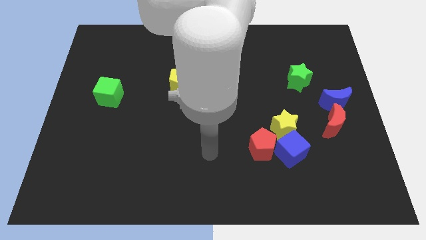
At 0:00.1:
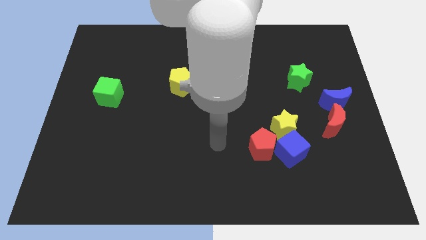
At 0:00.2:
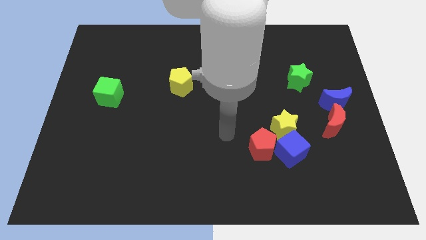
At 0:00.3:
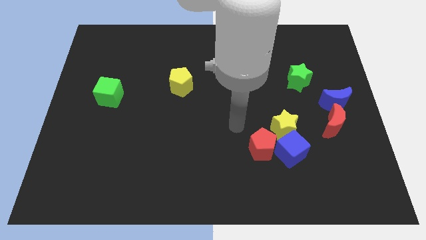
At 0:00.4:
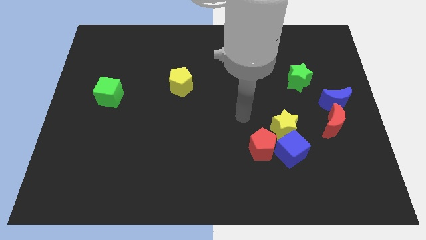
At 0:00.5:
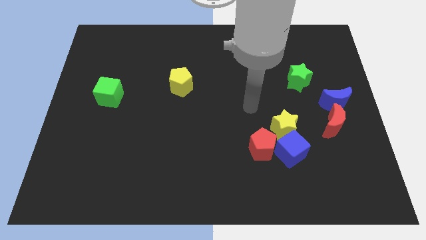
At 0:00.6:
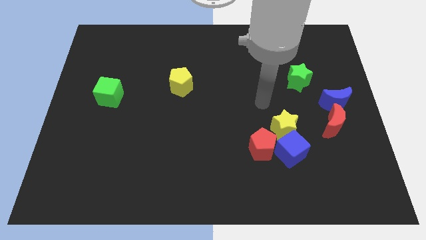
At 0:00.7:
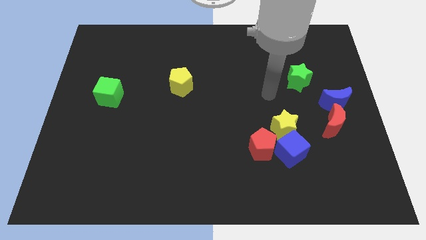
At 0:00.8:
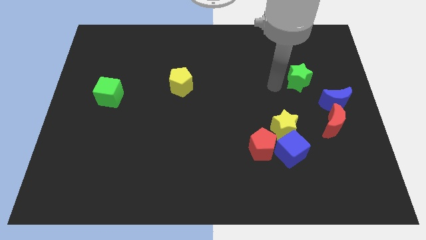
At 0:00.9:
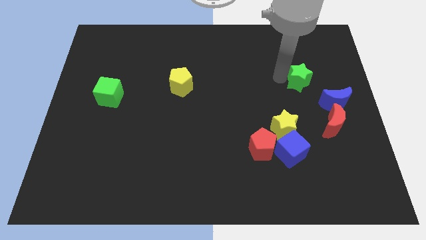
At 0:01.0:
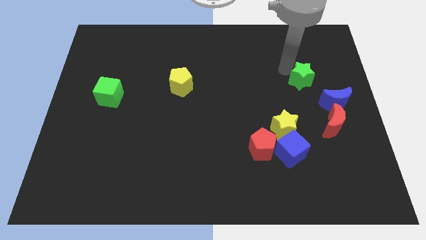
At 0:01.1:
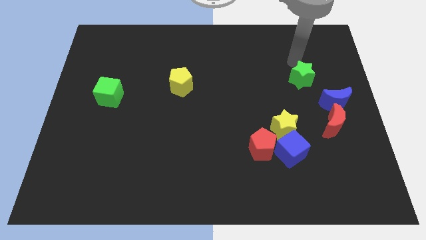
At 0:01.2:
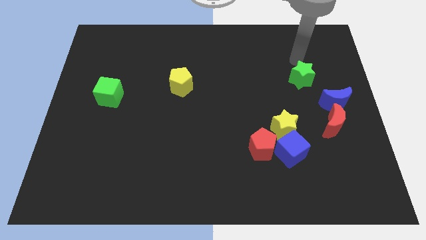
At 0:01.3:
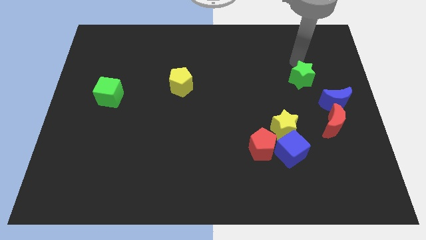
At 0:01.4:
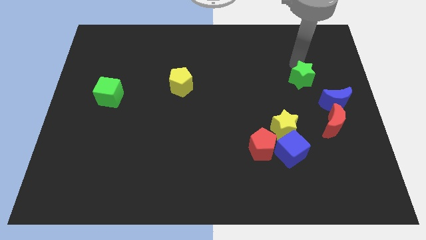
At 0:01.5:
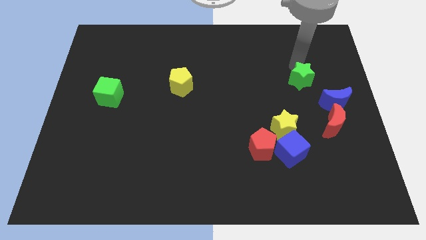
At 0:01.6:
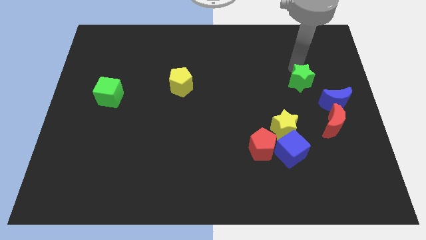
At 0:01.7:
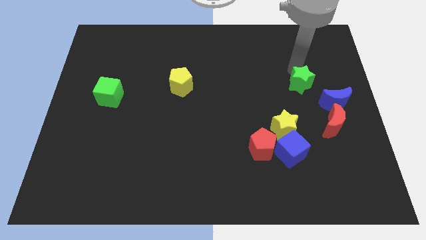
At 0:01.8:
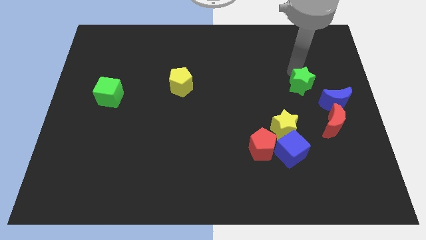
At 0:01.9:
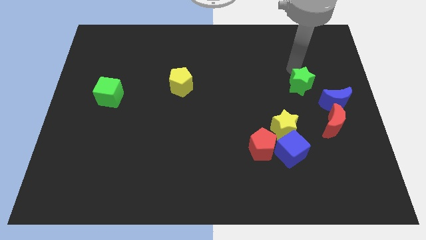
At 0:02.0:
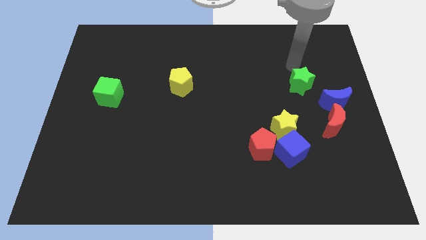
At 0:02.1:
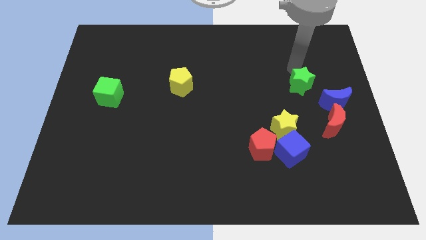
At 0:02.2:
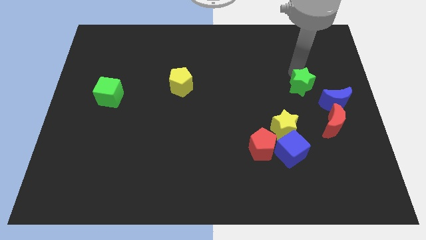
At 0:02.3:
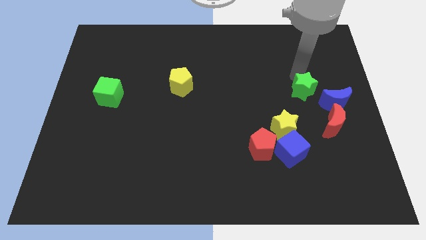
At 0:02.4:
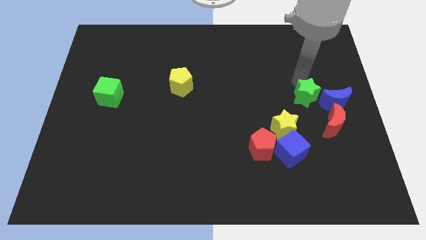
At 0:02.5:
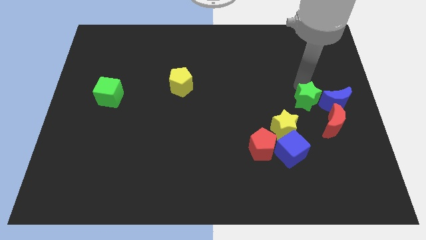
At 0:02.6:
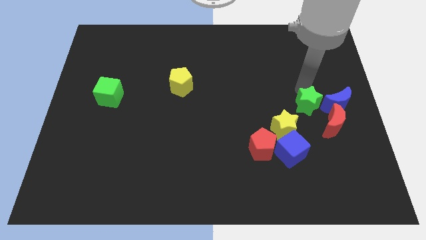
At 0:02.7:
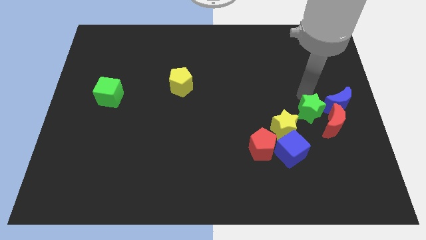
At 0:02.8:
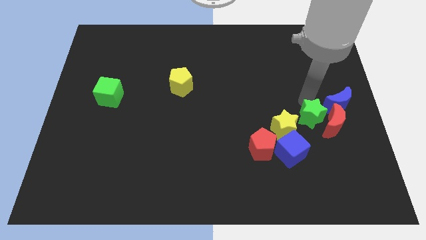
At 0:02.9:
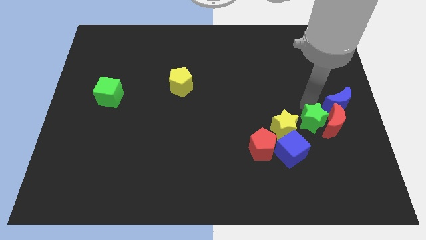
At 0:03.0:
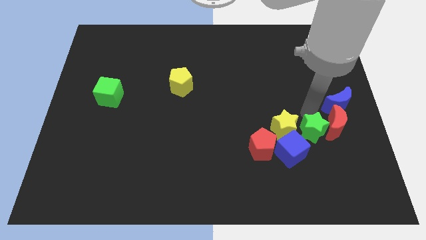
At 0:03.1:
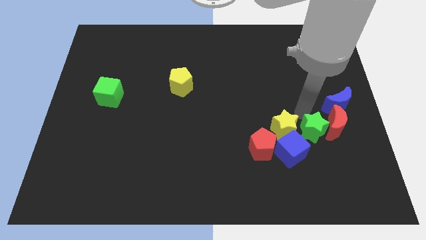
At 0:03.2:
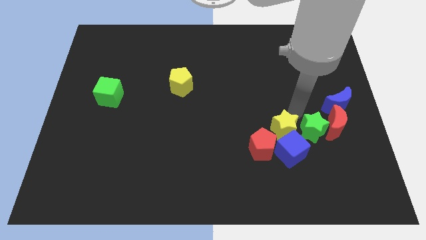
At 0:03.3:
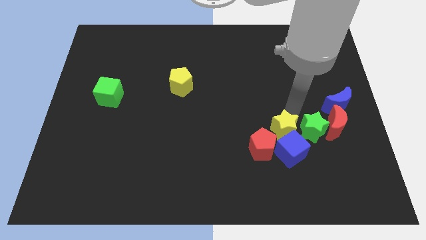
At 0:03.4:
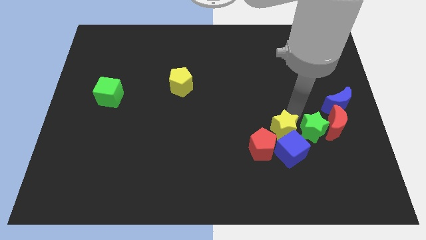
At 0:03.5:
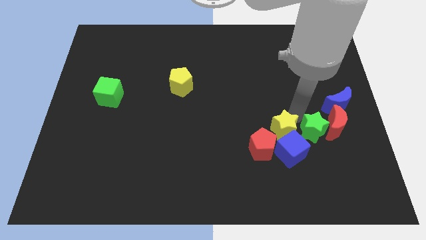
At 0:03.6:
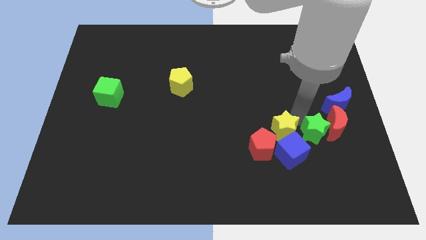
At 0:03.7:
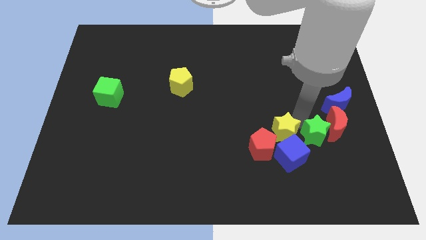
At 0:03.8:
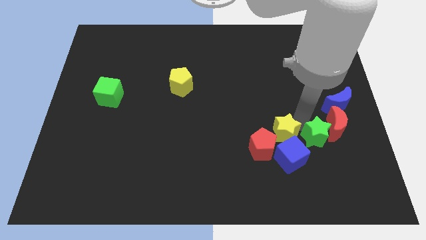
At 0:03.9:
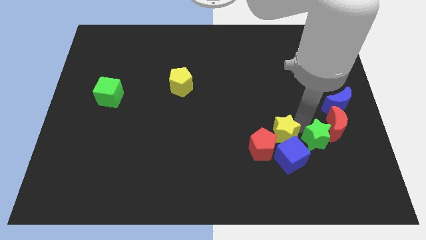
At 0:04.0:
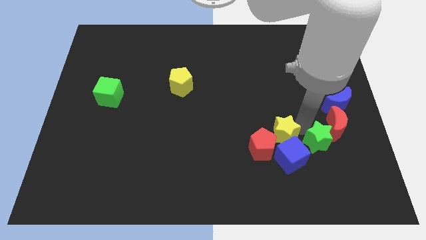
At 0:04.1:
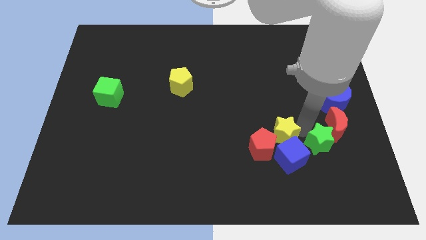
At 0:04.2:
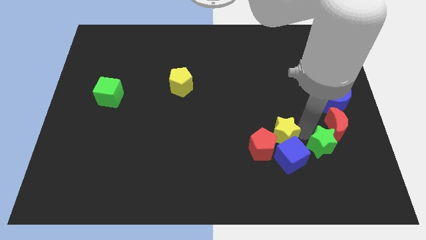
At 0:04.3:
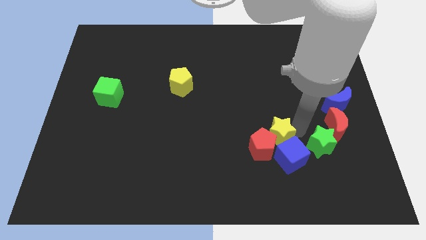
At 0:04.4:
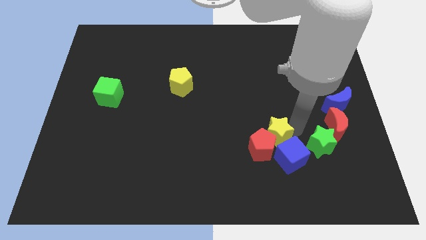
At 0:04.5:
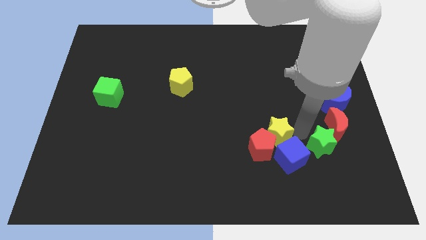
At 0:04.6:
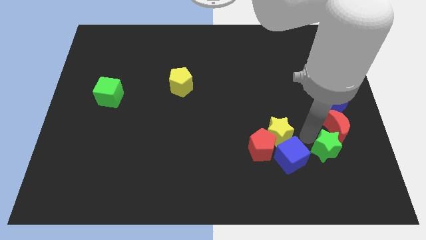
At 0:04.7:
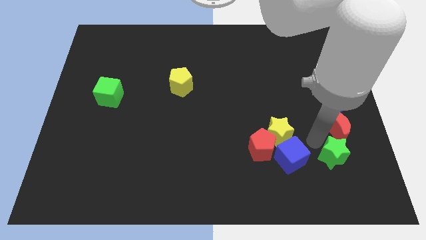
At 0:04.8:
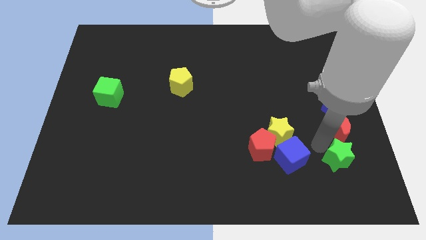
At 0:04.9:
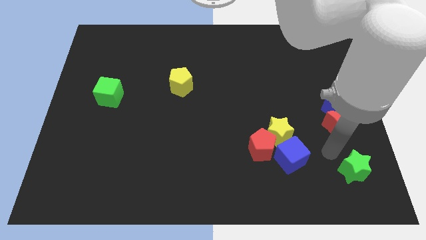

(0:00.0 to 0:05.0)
put the green star to the lower right corner

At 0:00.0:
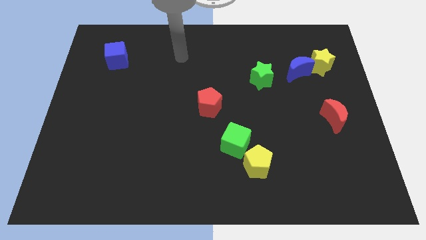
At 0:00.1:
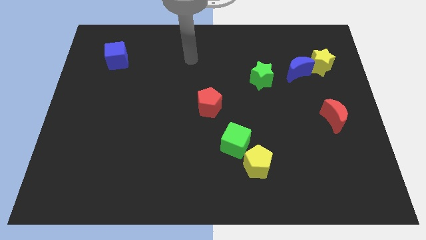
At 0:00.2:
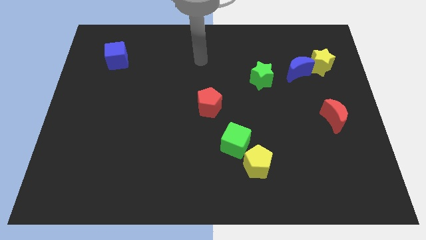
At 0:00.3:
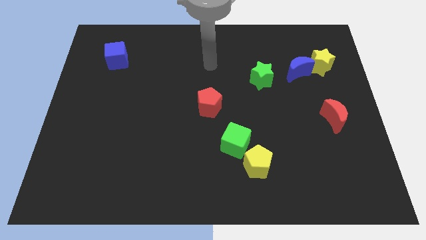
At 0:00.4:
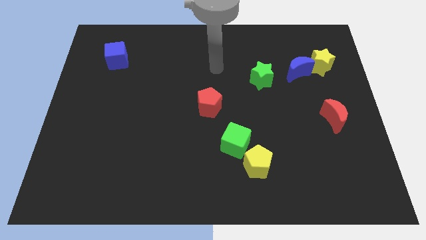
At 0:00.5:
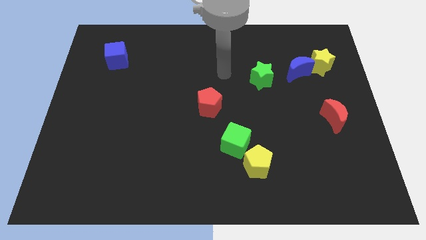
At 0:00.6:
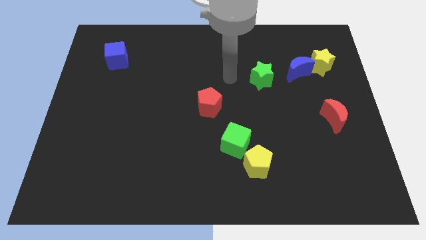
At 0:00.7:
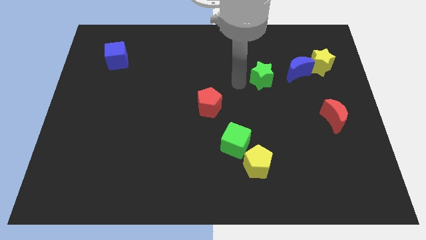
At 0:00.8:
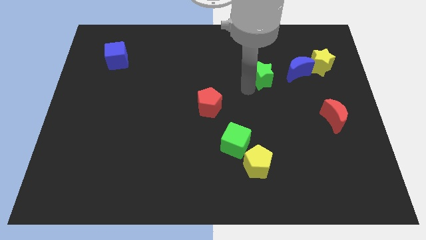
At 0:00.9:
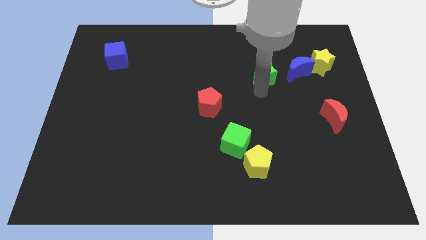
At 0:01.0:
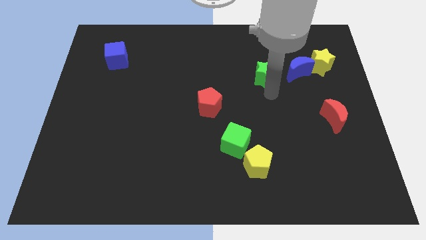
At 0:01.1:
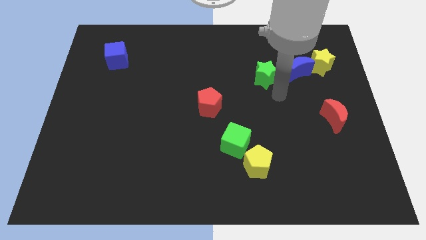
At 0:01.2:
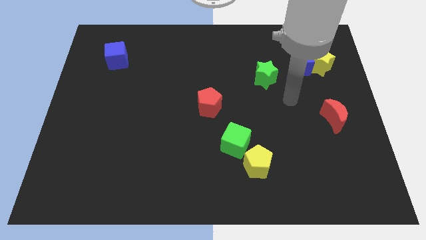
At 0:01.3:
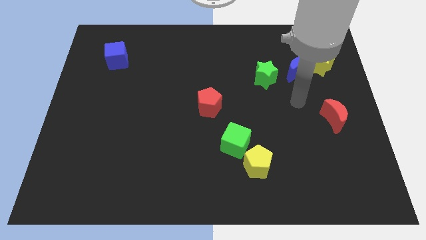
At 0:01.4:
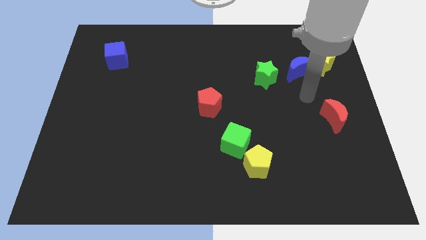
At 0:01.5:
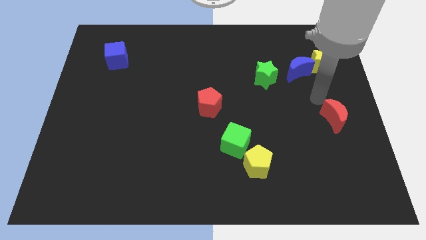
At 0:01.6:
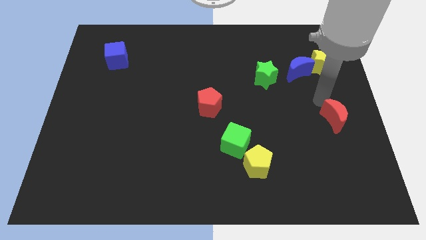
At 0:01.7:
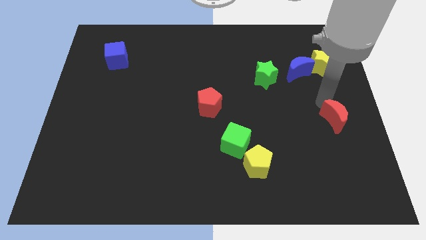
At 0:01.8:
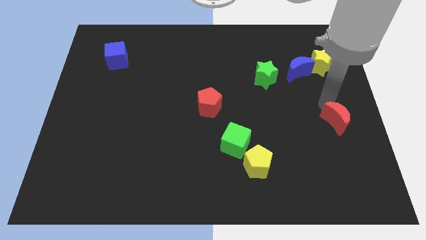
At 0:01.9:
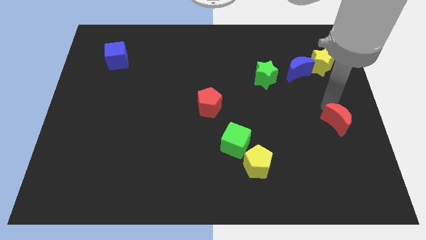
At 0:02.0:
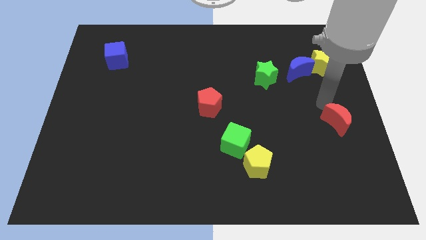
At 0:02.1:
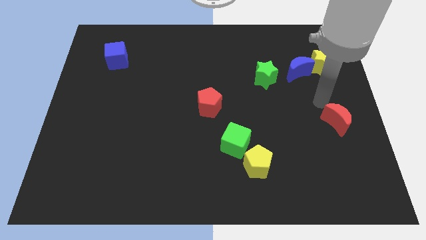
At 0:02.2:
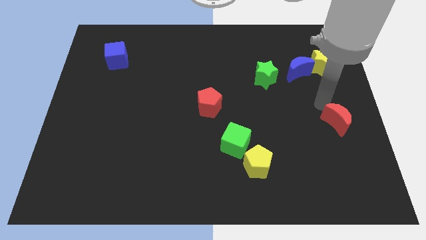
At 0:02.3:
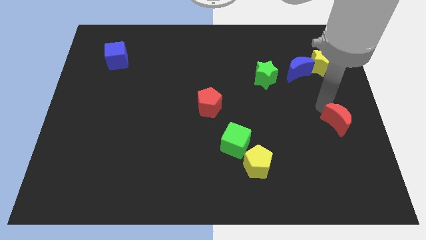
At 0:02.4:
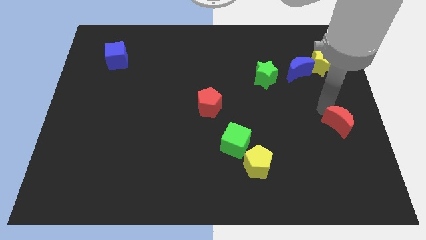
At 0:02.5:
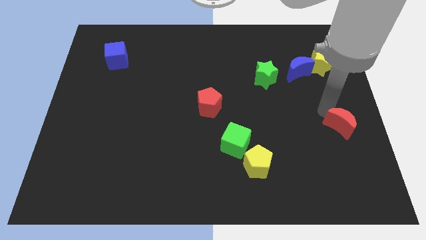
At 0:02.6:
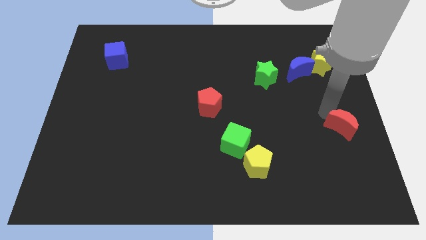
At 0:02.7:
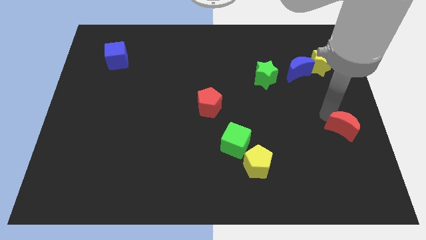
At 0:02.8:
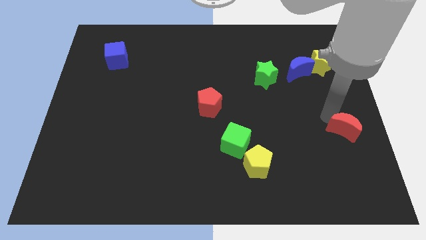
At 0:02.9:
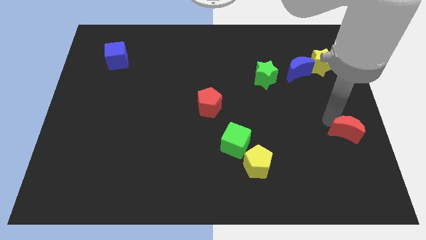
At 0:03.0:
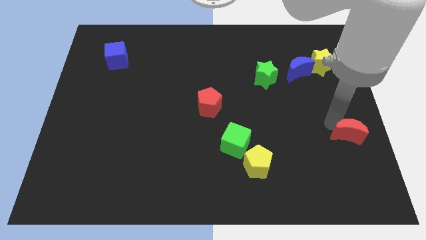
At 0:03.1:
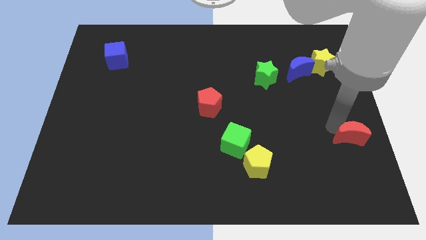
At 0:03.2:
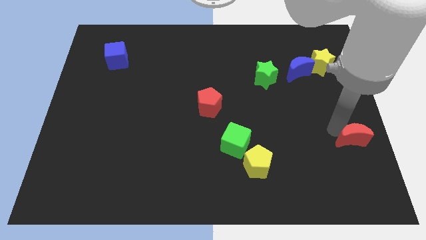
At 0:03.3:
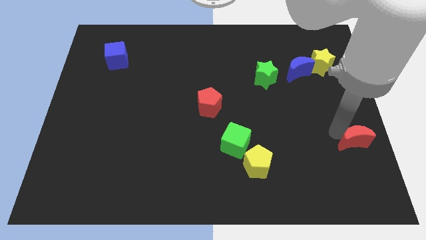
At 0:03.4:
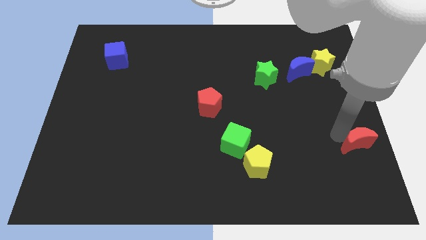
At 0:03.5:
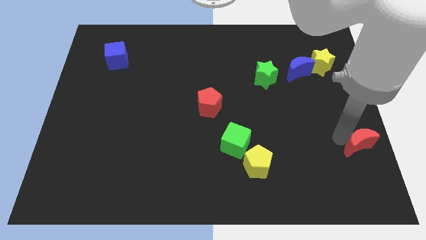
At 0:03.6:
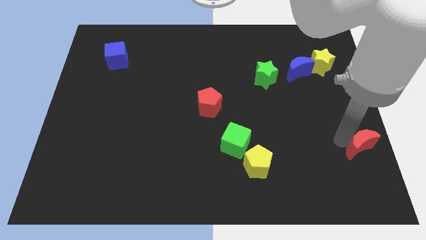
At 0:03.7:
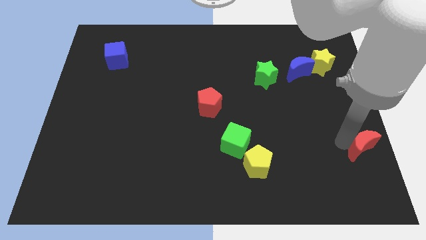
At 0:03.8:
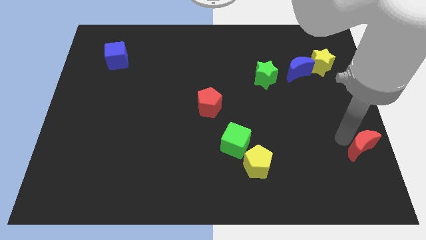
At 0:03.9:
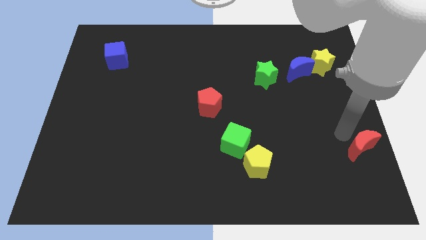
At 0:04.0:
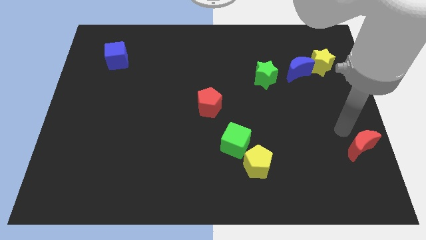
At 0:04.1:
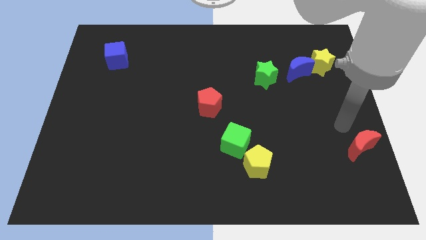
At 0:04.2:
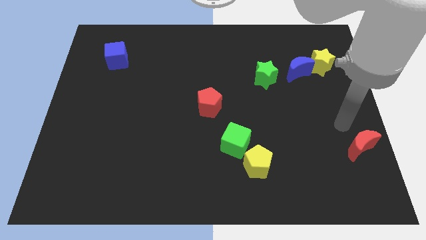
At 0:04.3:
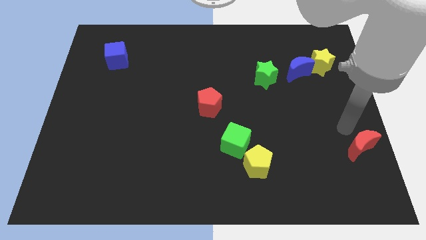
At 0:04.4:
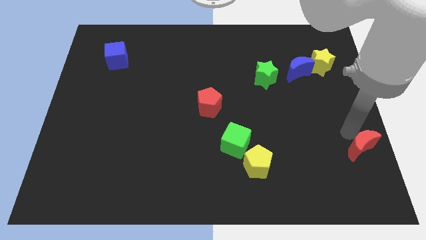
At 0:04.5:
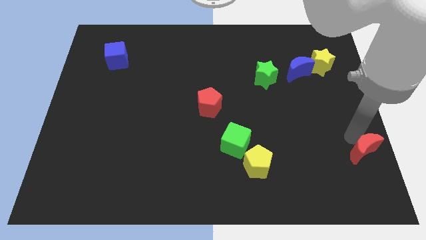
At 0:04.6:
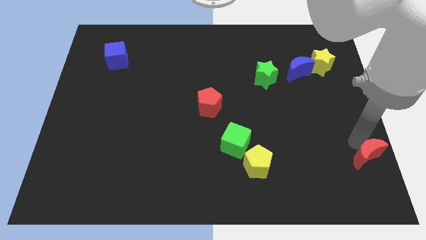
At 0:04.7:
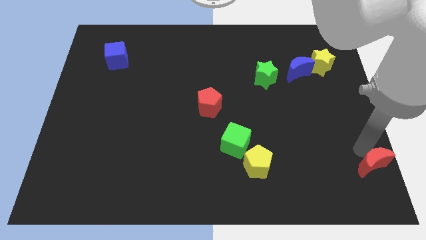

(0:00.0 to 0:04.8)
slide the red moon to the lower right corner
